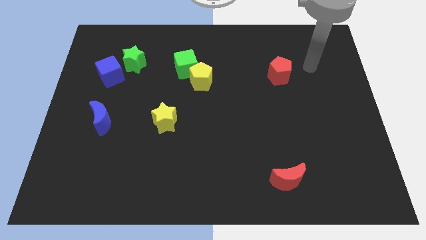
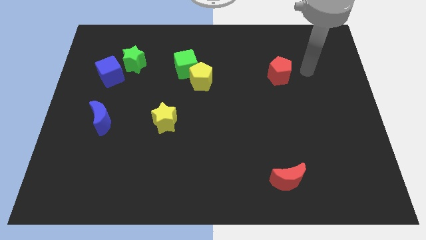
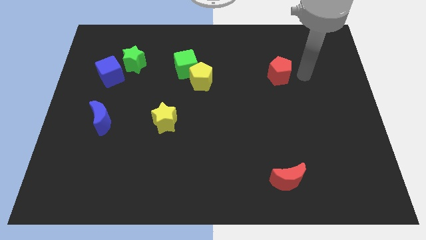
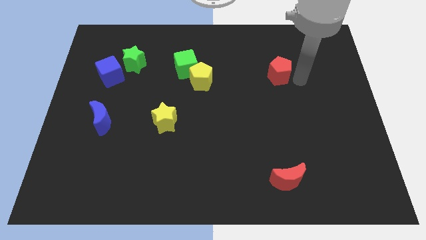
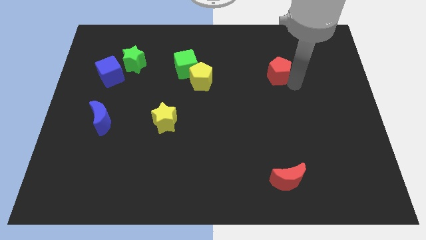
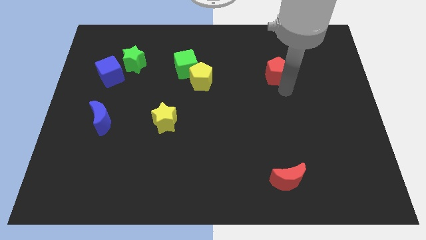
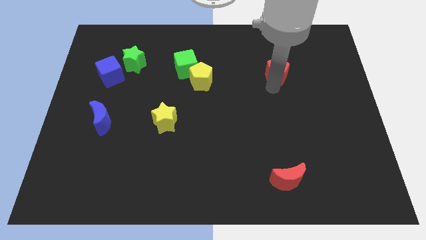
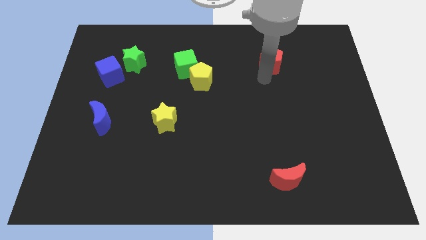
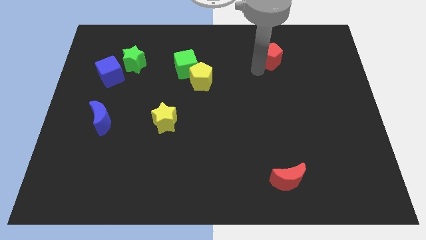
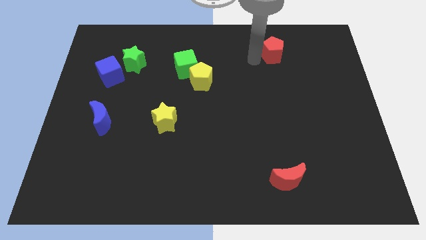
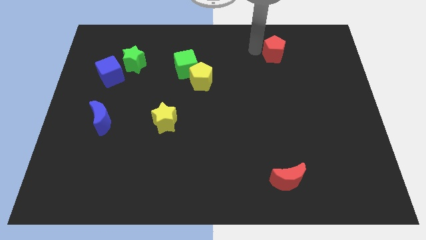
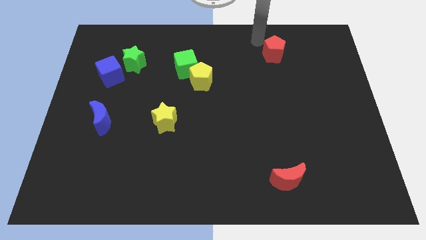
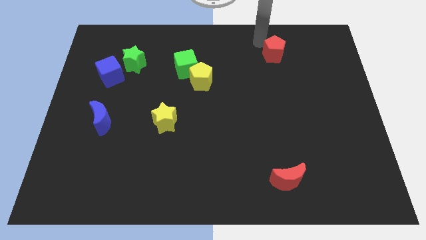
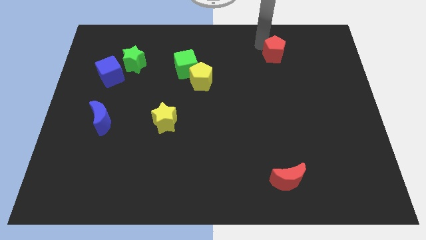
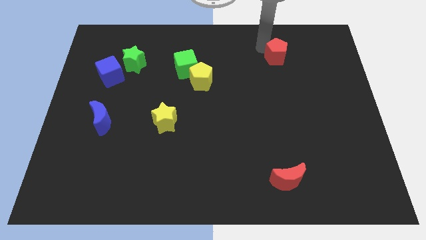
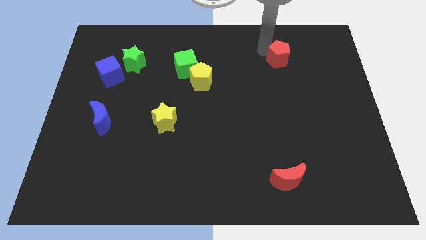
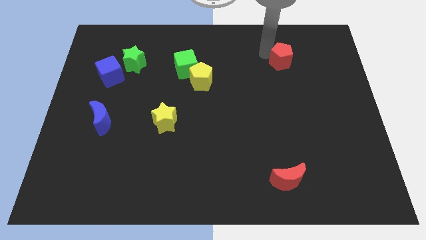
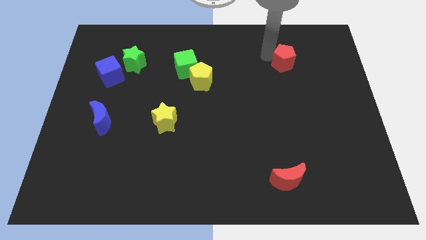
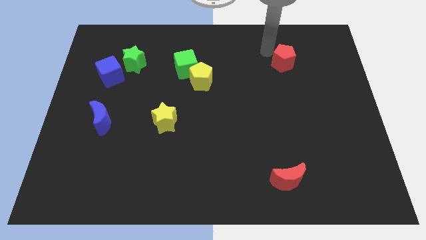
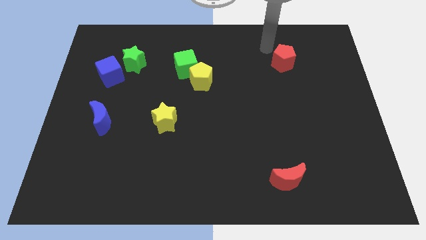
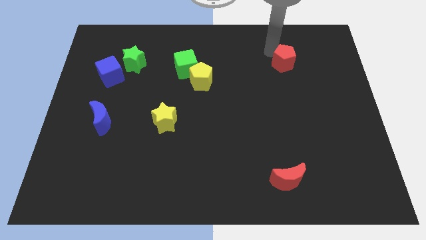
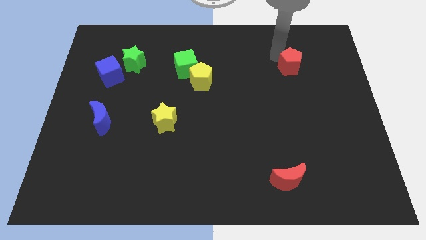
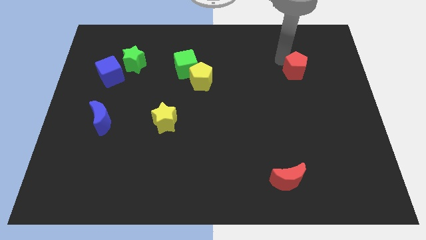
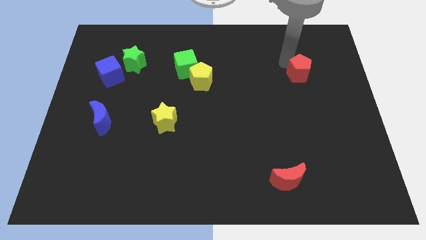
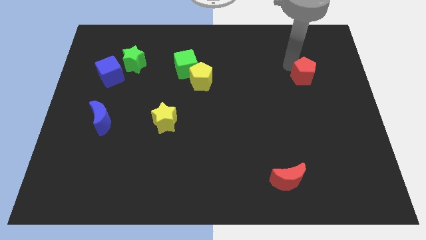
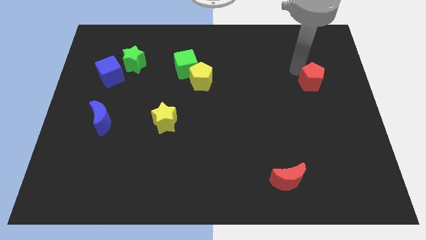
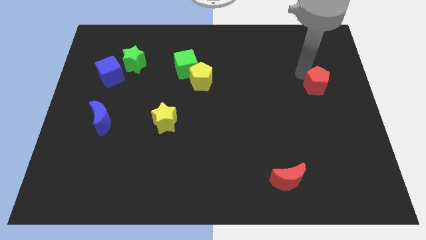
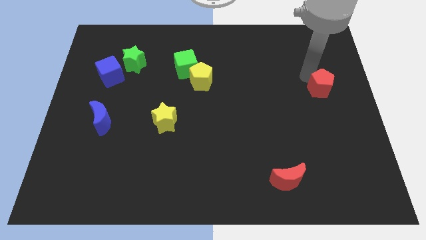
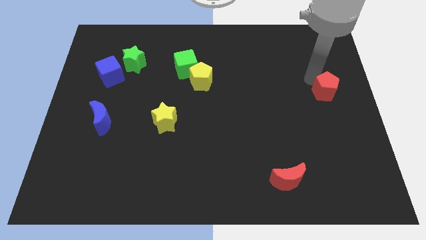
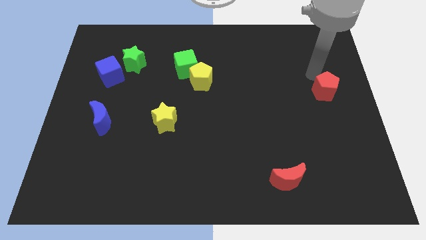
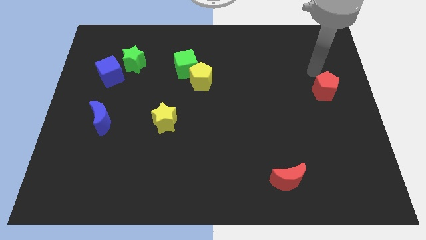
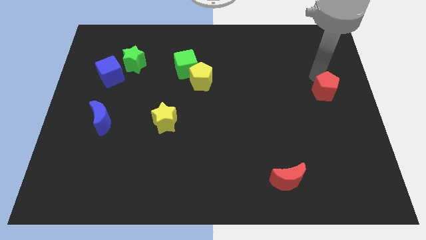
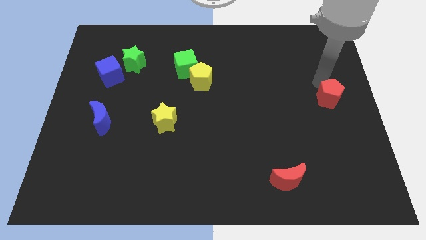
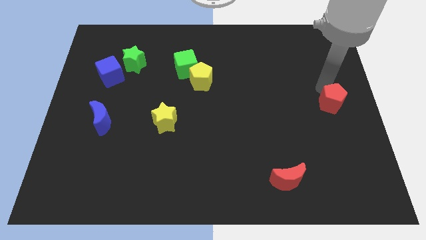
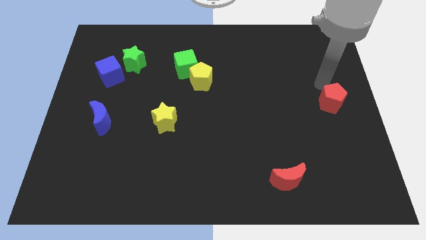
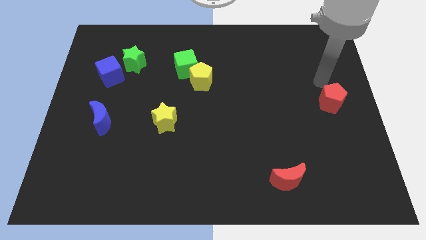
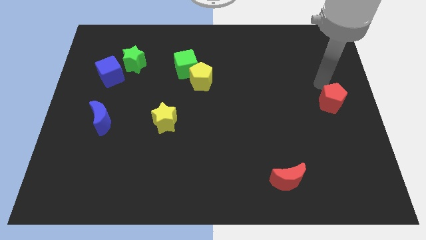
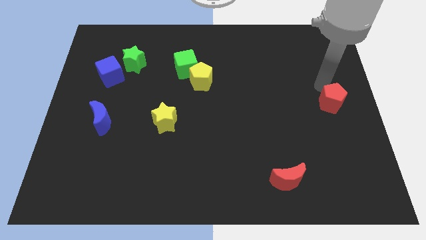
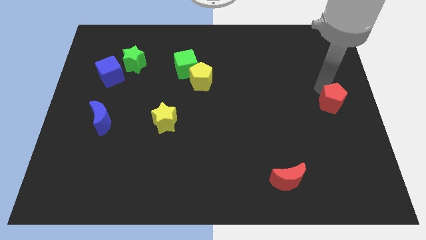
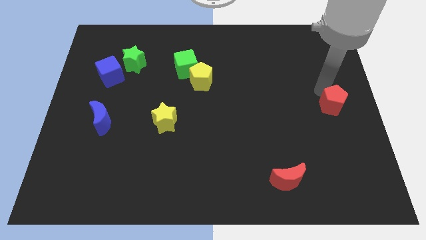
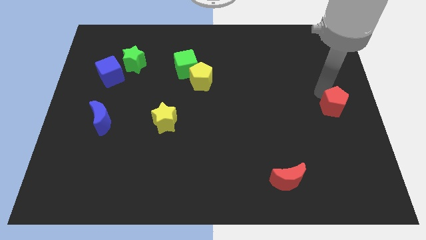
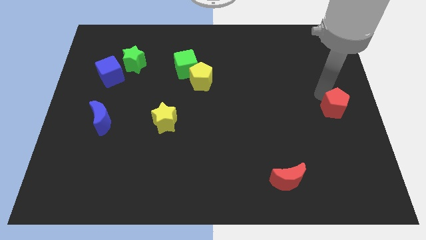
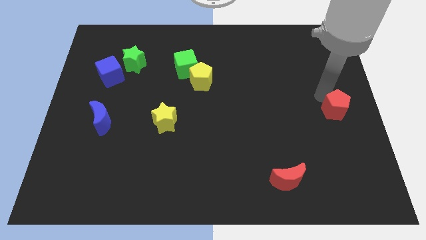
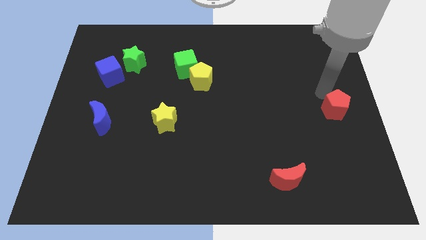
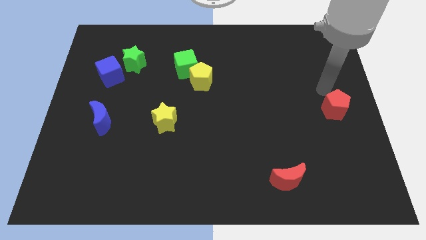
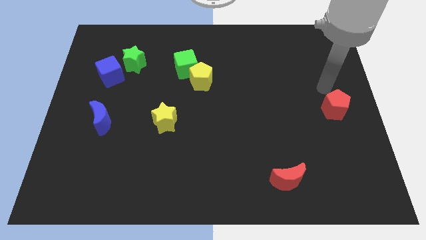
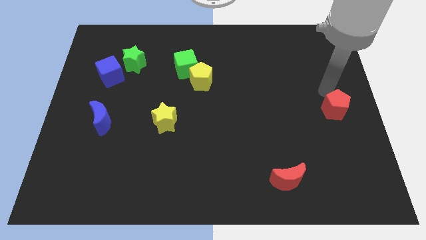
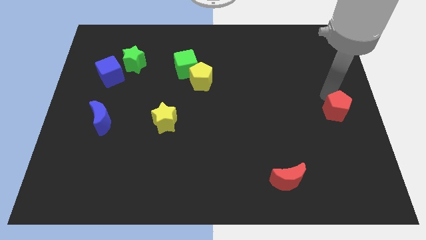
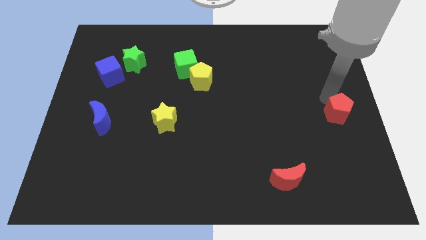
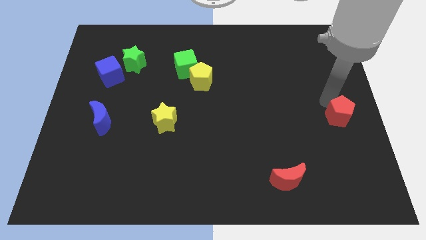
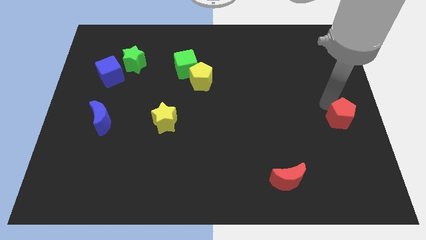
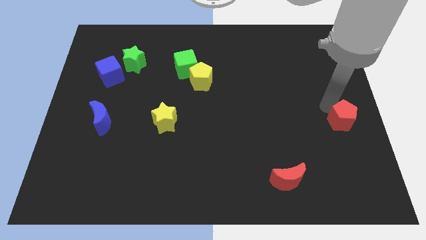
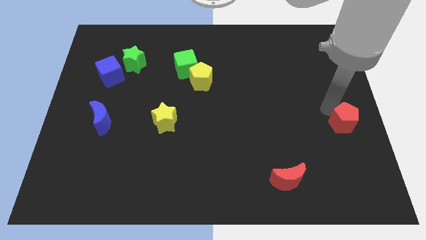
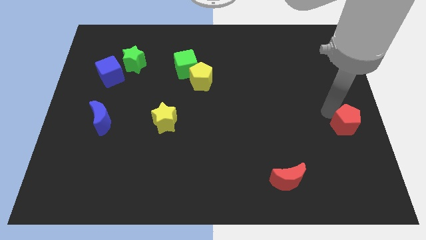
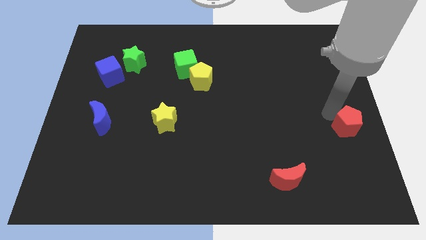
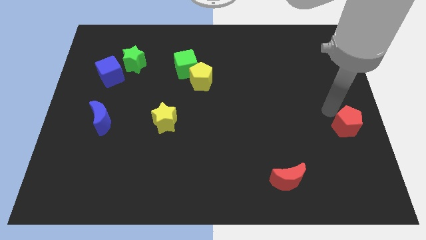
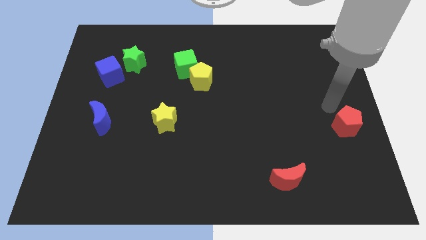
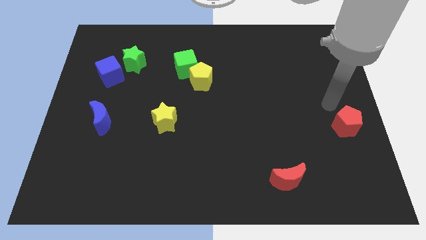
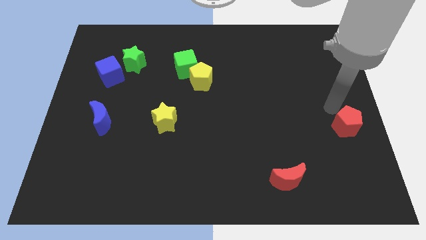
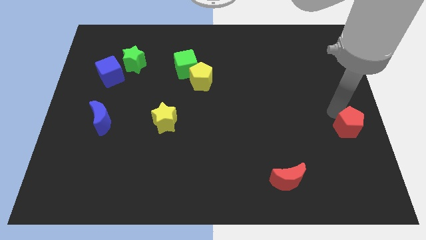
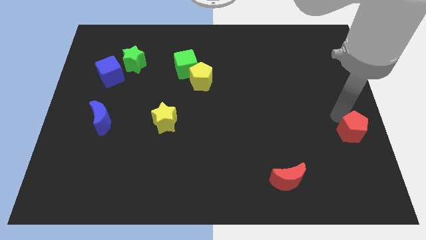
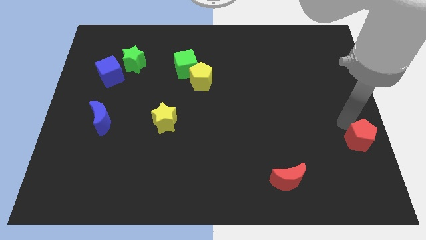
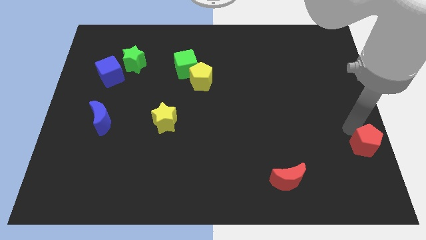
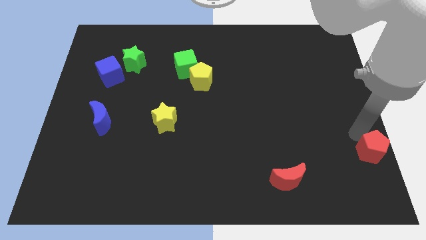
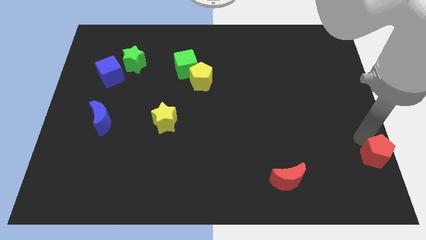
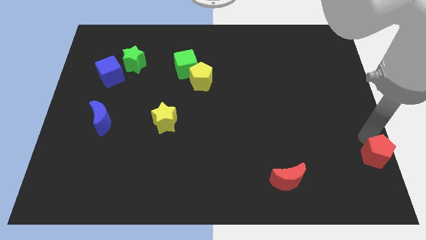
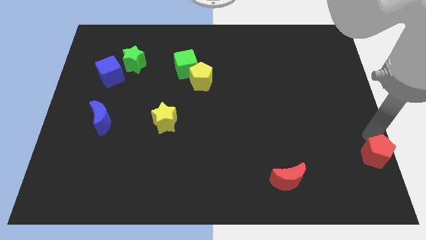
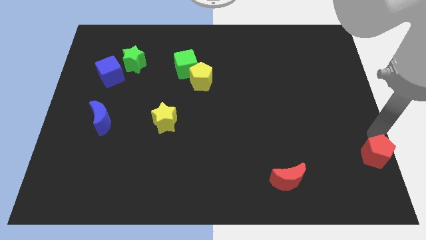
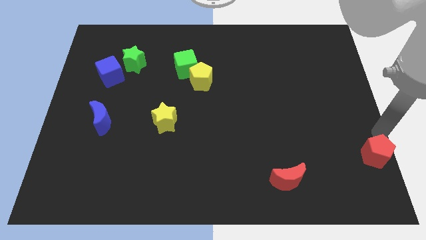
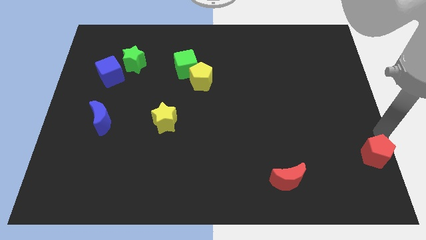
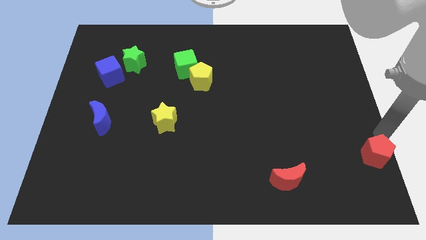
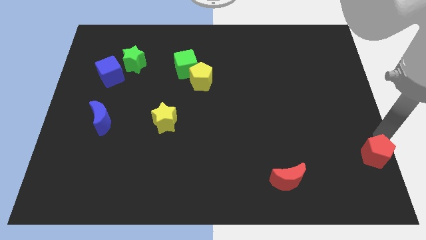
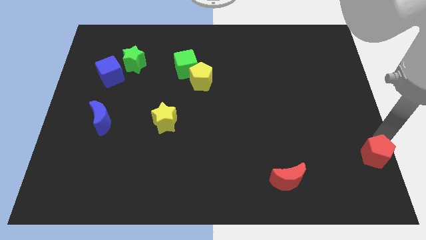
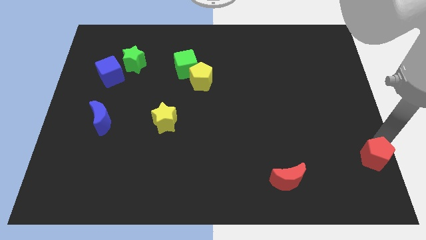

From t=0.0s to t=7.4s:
slide the red pentagon to the bottom right of the board
